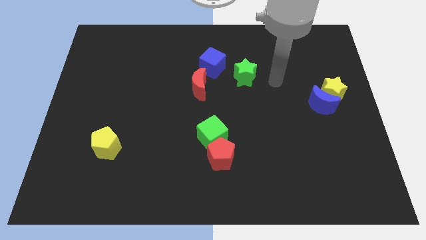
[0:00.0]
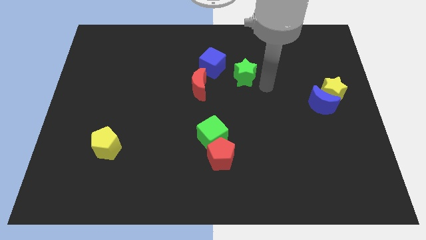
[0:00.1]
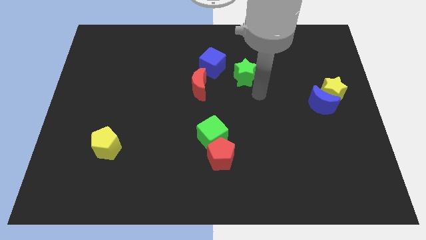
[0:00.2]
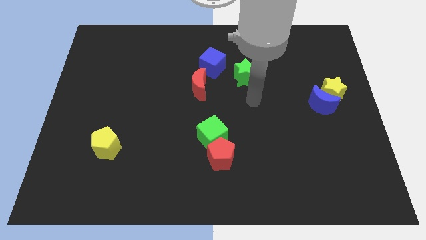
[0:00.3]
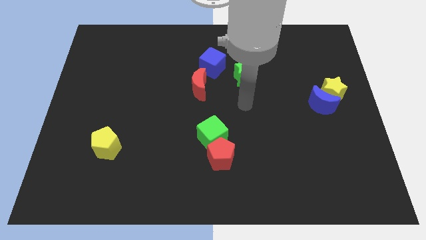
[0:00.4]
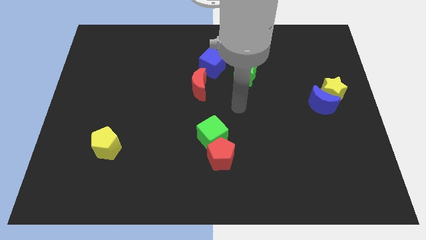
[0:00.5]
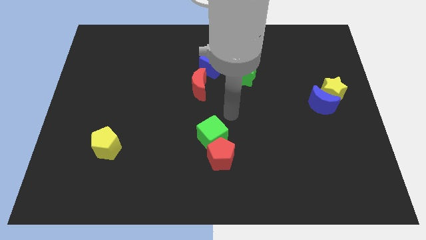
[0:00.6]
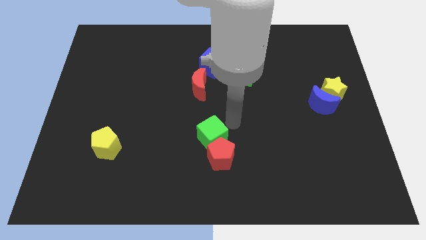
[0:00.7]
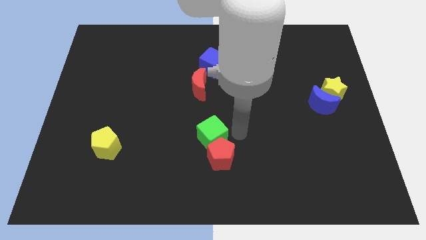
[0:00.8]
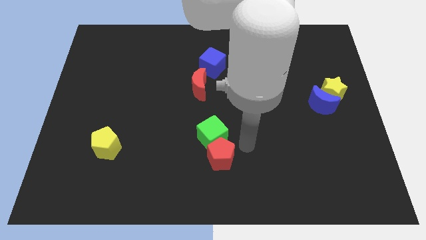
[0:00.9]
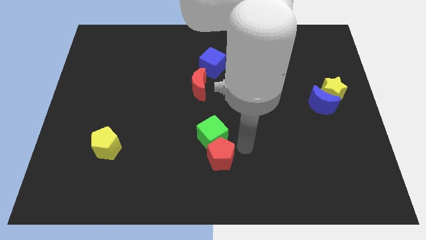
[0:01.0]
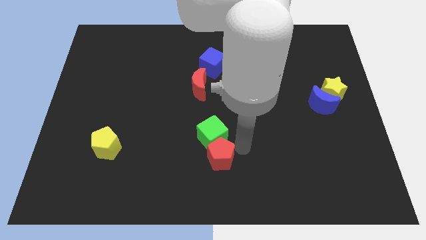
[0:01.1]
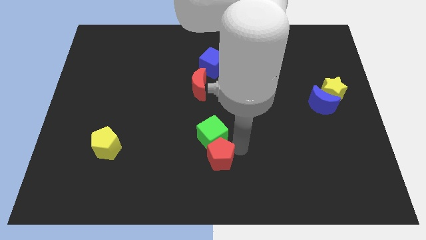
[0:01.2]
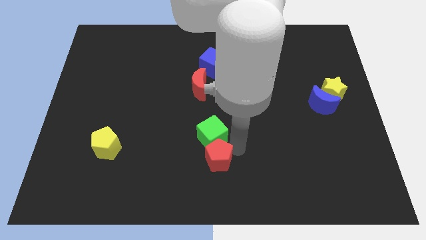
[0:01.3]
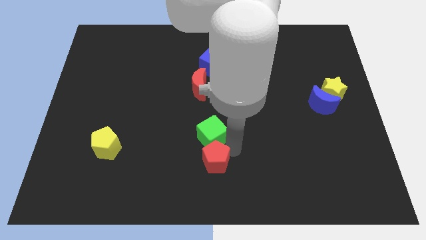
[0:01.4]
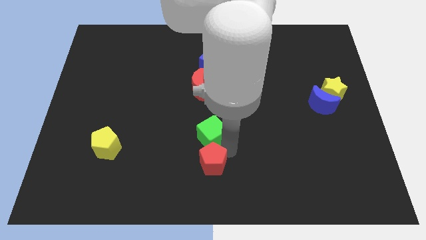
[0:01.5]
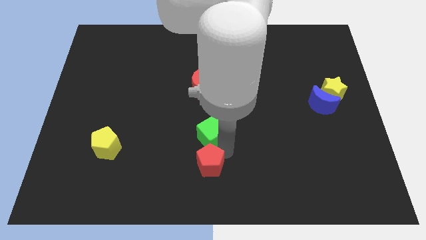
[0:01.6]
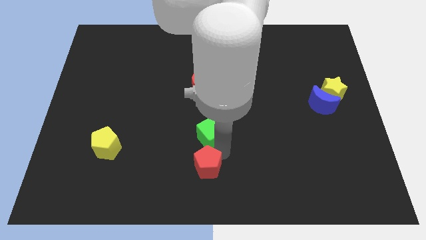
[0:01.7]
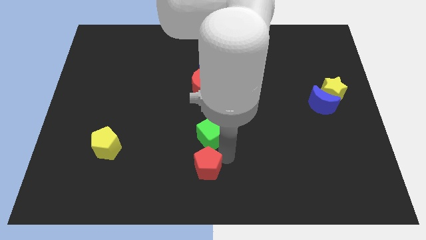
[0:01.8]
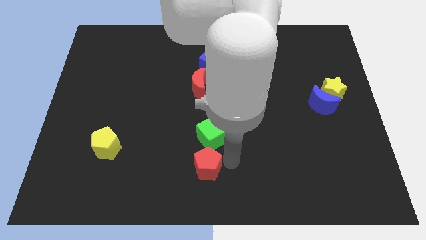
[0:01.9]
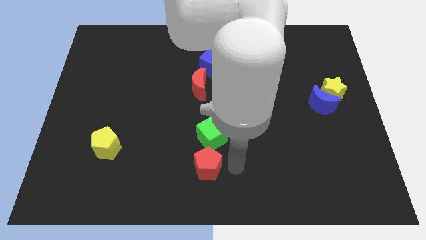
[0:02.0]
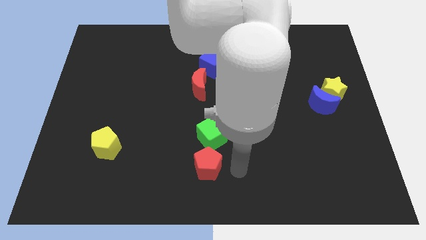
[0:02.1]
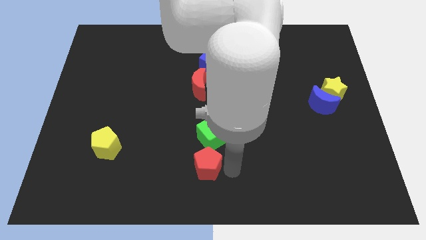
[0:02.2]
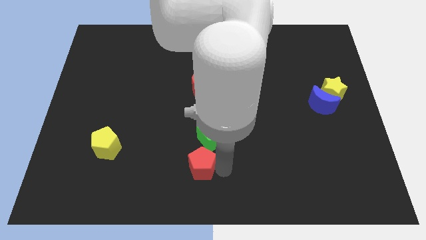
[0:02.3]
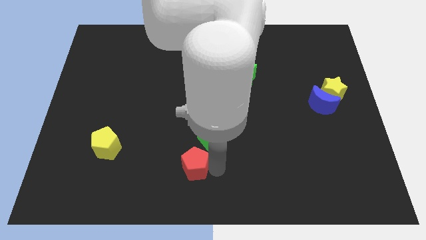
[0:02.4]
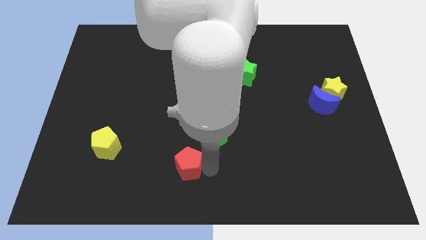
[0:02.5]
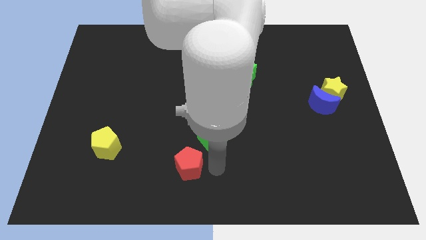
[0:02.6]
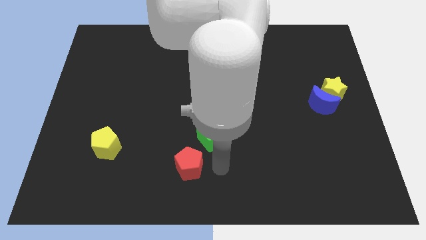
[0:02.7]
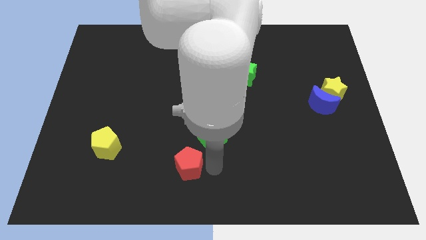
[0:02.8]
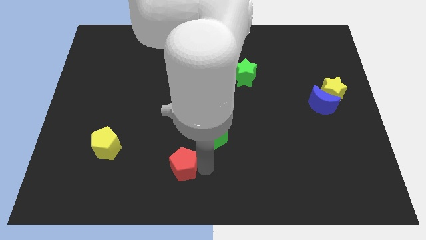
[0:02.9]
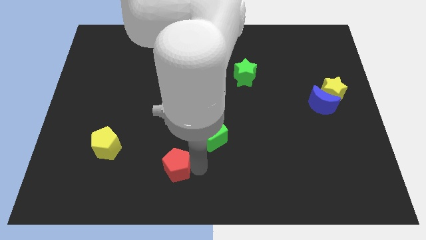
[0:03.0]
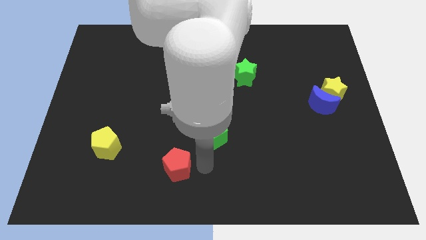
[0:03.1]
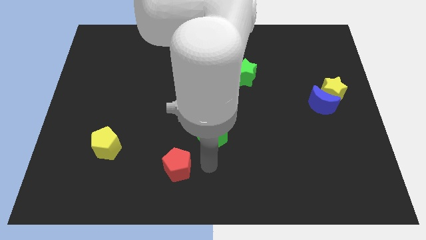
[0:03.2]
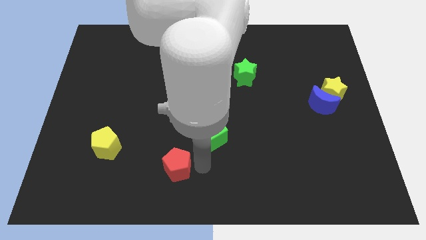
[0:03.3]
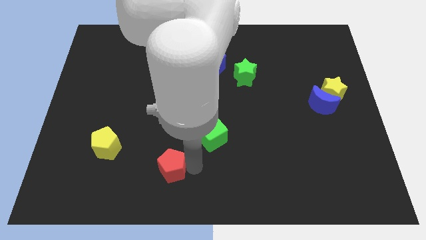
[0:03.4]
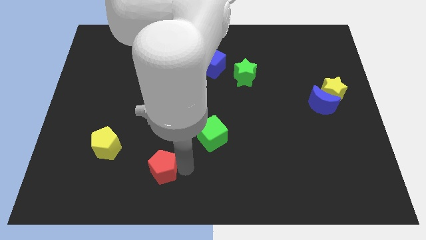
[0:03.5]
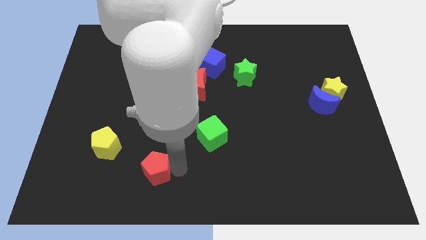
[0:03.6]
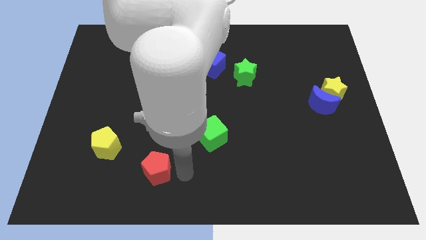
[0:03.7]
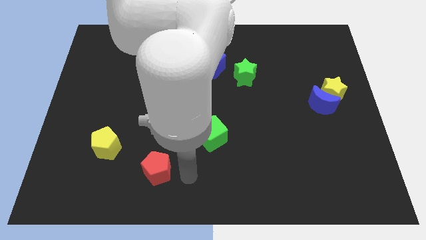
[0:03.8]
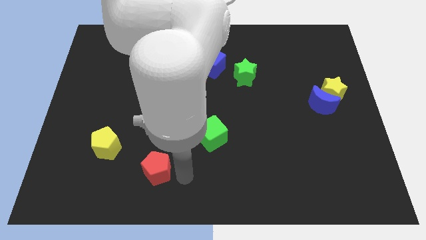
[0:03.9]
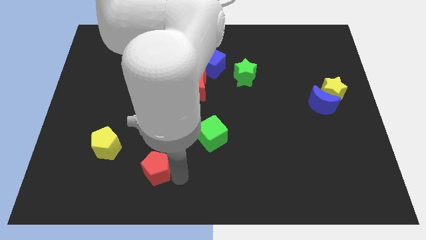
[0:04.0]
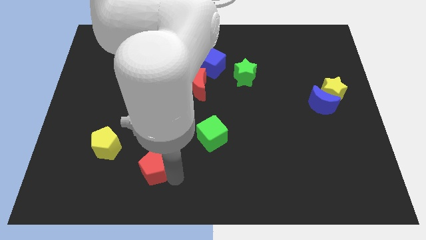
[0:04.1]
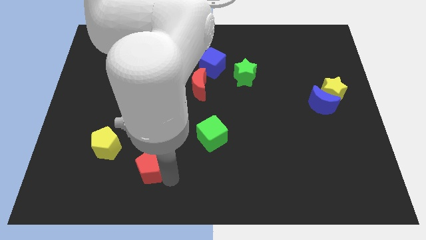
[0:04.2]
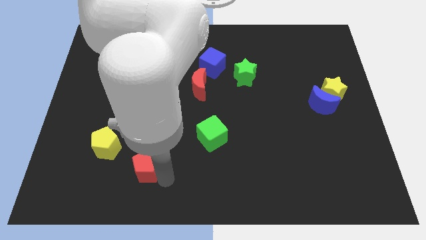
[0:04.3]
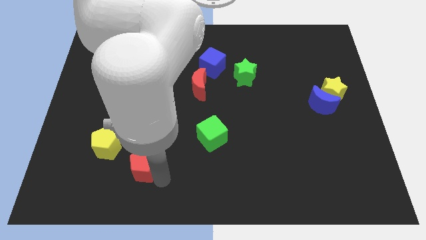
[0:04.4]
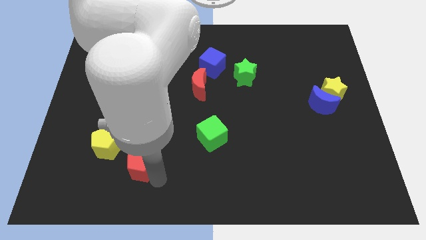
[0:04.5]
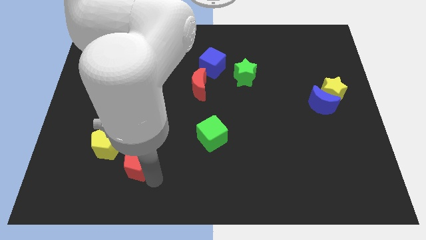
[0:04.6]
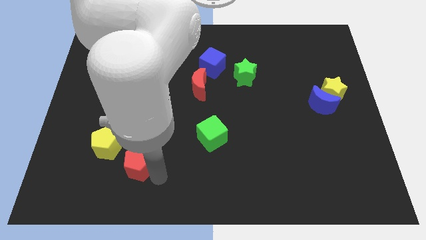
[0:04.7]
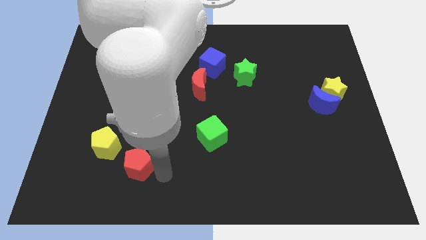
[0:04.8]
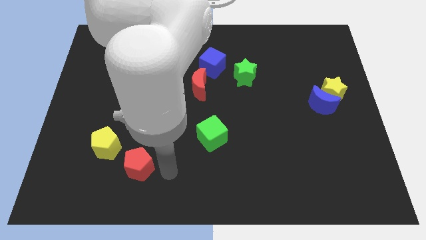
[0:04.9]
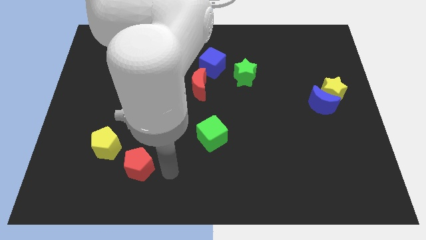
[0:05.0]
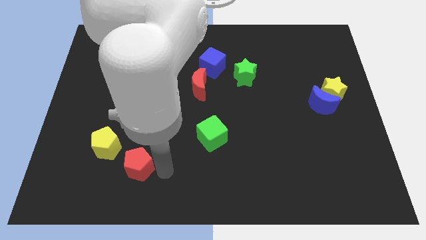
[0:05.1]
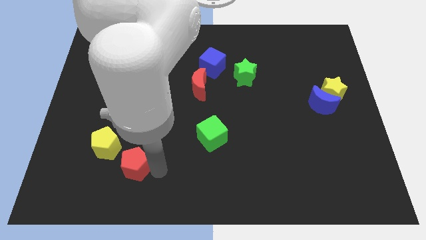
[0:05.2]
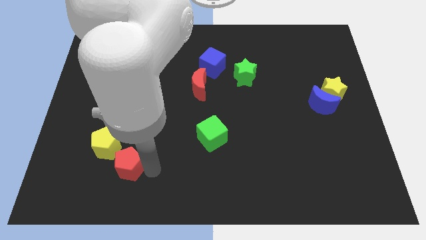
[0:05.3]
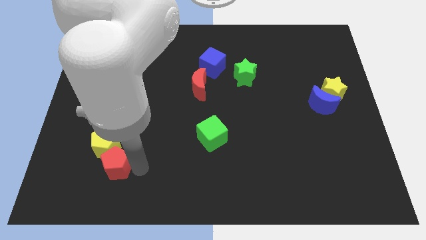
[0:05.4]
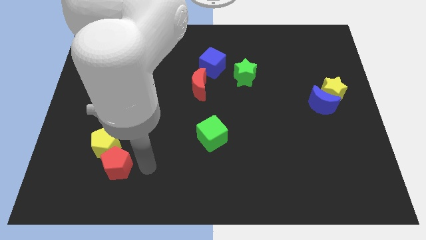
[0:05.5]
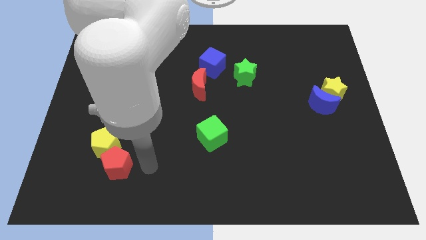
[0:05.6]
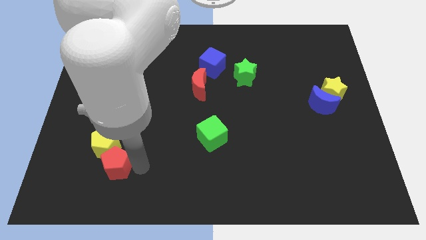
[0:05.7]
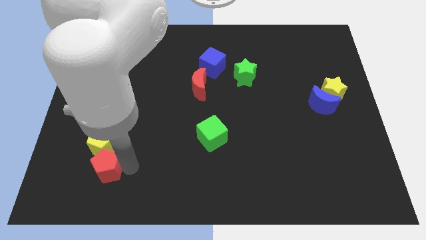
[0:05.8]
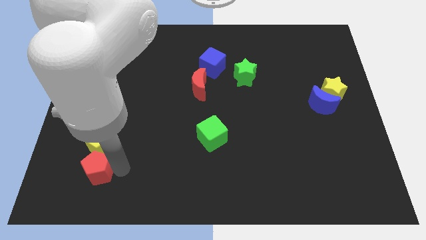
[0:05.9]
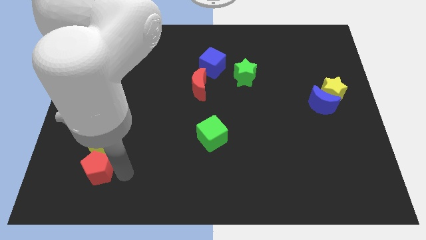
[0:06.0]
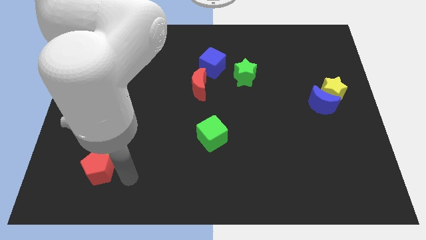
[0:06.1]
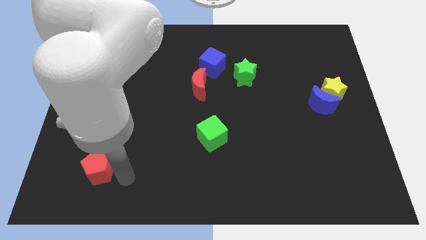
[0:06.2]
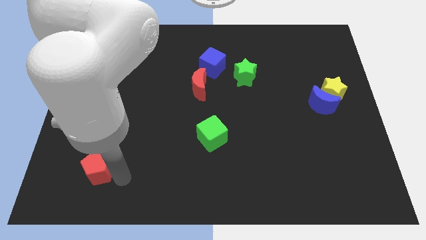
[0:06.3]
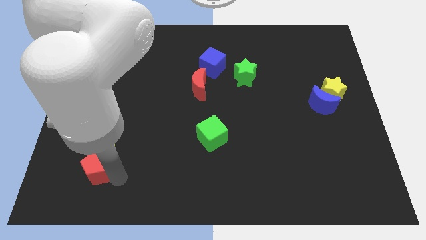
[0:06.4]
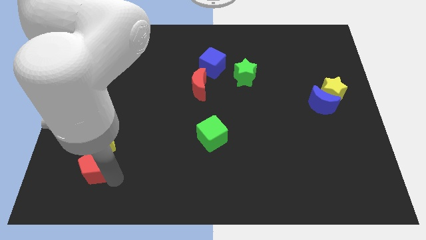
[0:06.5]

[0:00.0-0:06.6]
push the red pentagon diagonally down and to the left of the yellow pentagon
